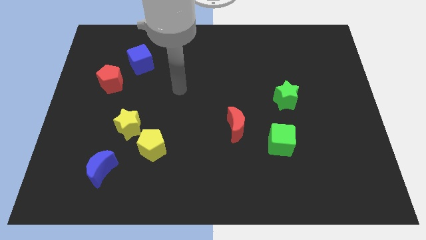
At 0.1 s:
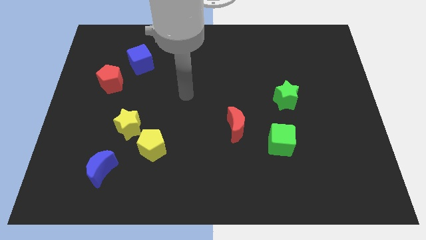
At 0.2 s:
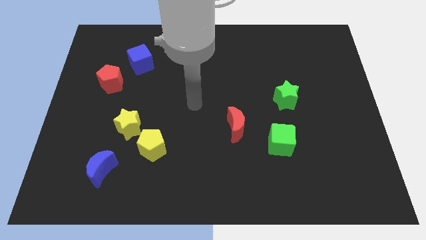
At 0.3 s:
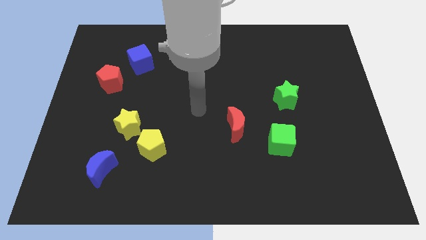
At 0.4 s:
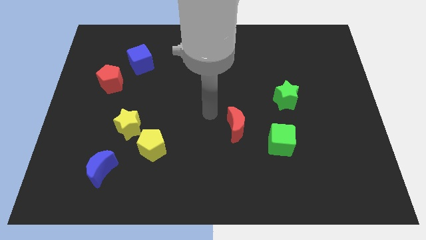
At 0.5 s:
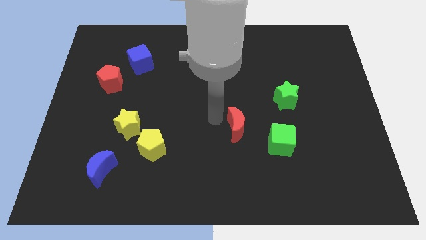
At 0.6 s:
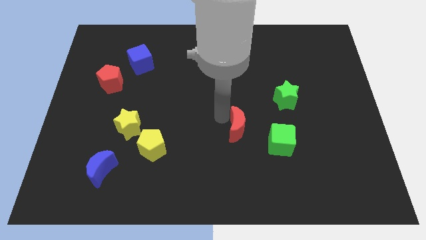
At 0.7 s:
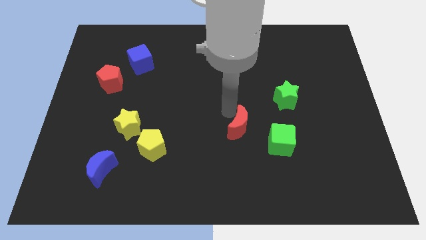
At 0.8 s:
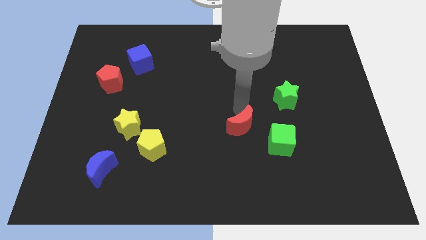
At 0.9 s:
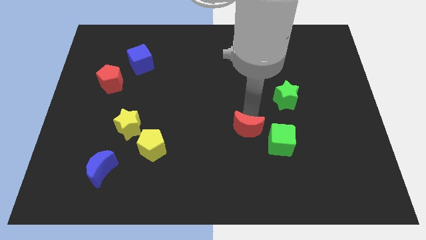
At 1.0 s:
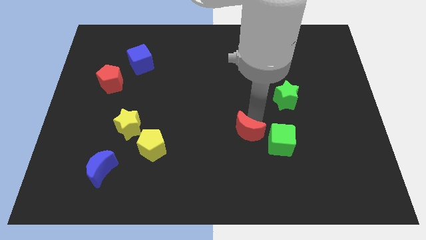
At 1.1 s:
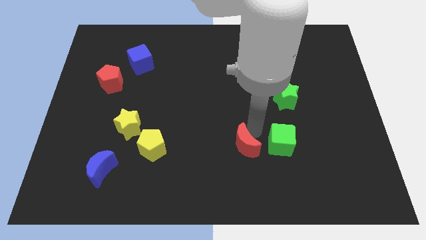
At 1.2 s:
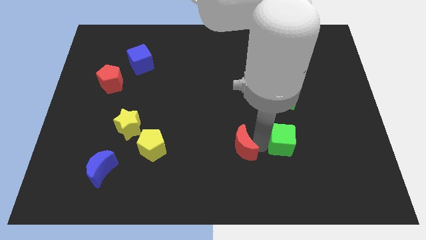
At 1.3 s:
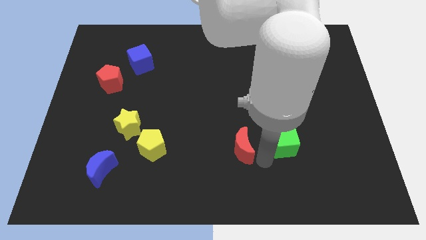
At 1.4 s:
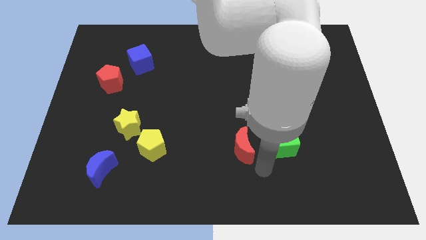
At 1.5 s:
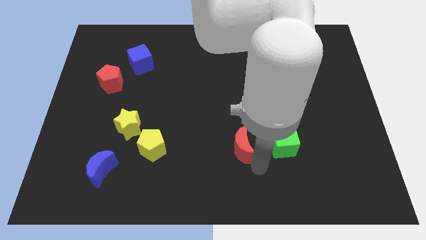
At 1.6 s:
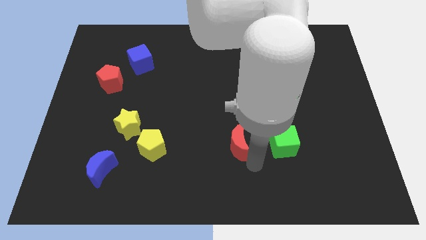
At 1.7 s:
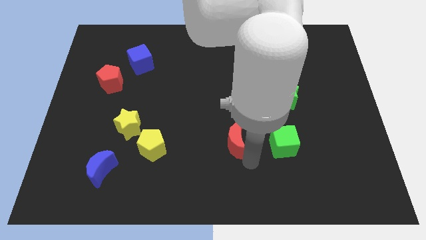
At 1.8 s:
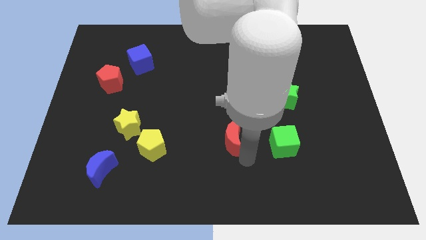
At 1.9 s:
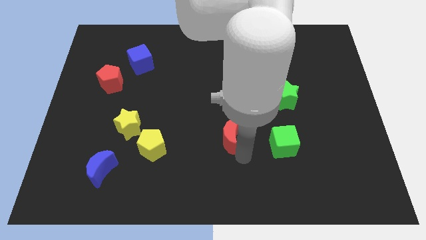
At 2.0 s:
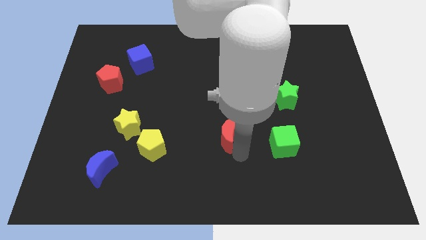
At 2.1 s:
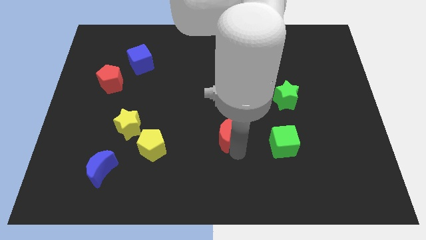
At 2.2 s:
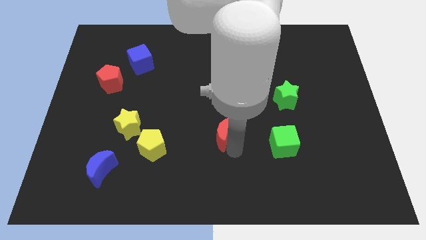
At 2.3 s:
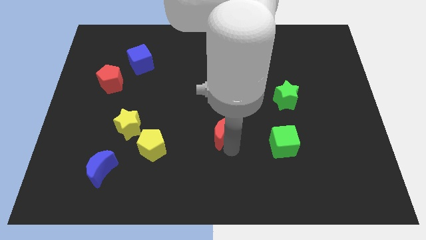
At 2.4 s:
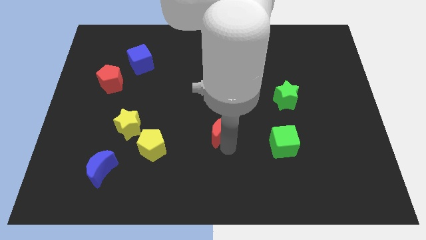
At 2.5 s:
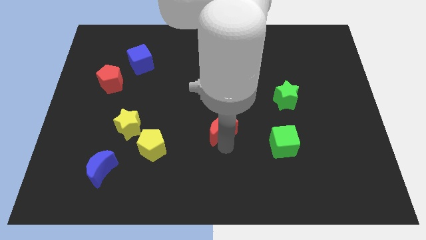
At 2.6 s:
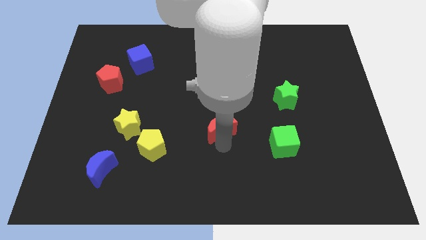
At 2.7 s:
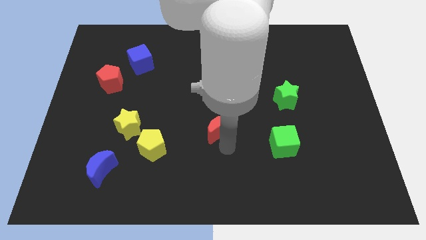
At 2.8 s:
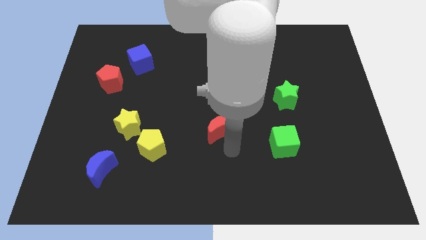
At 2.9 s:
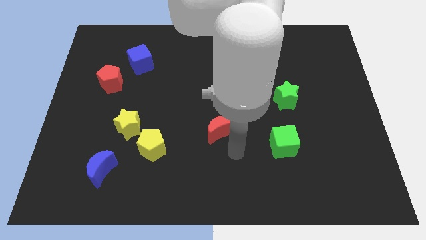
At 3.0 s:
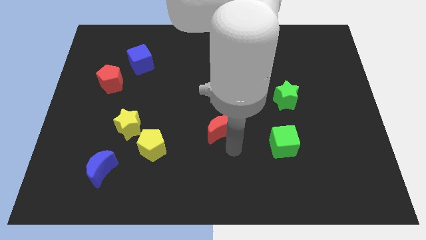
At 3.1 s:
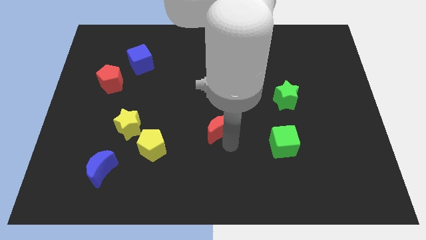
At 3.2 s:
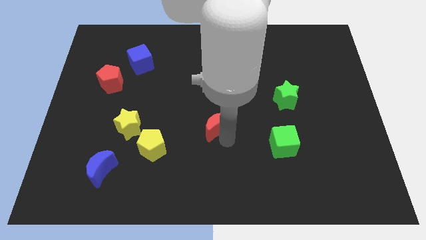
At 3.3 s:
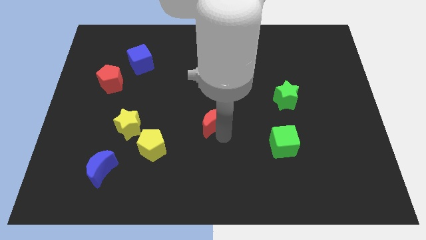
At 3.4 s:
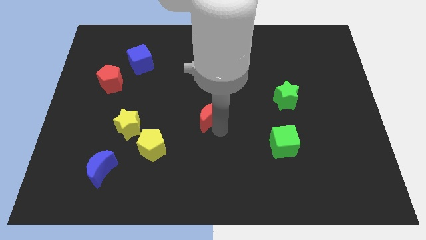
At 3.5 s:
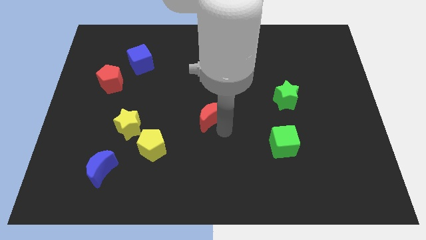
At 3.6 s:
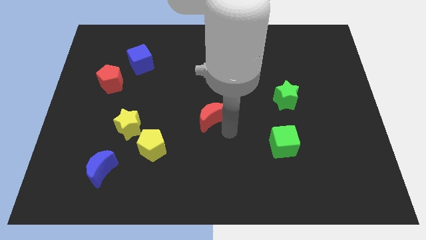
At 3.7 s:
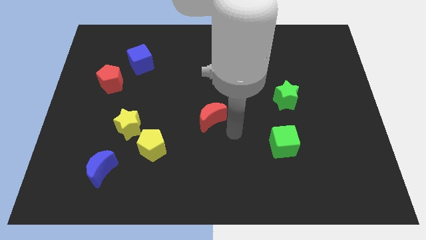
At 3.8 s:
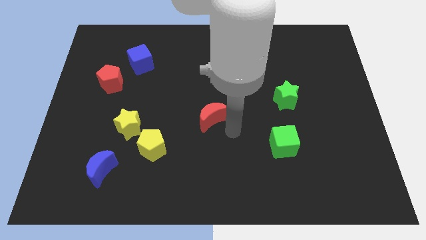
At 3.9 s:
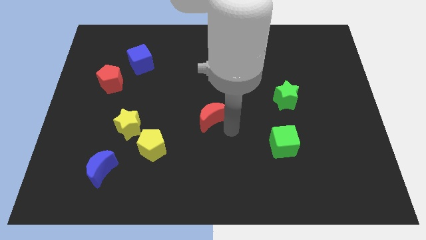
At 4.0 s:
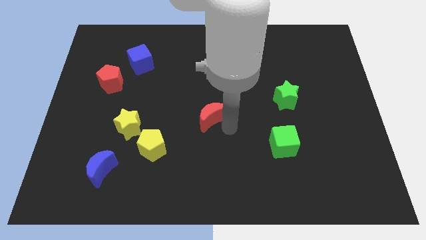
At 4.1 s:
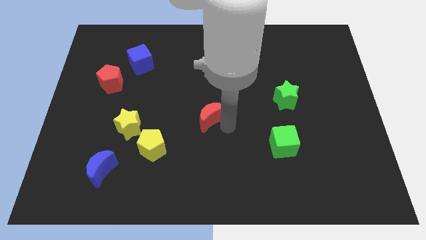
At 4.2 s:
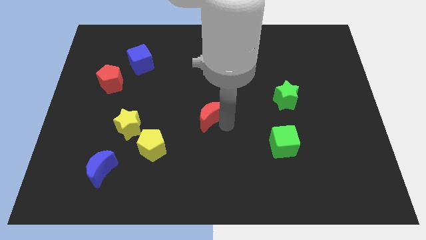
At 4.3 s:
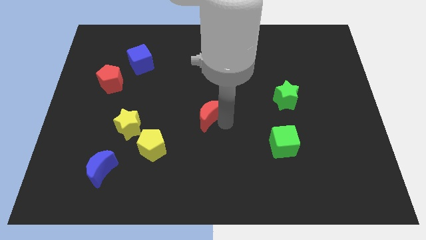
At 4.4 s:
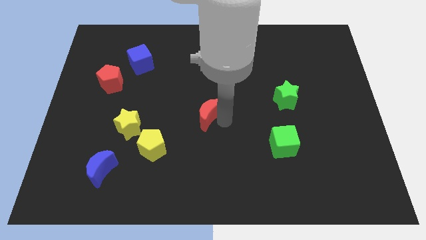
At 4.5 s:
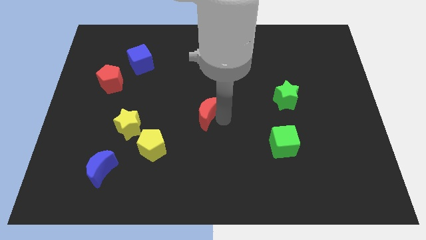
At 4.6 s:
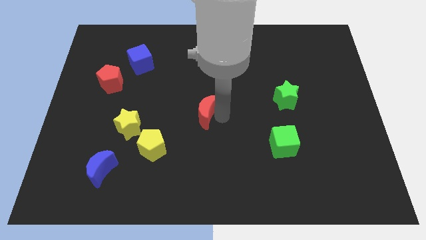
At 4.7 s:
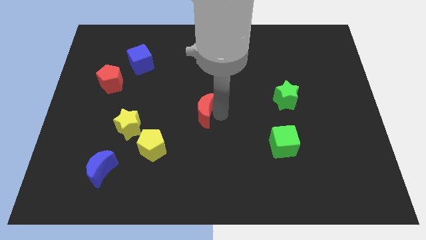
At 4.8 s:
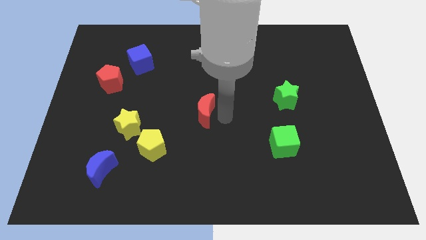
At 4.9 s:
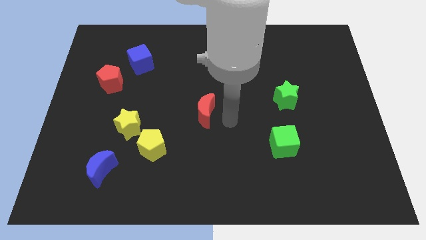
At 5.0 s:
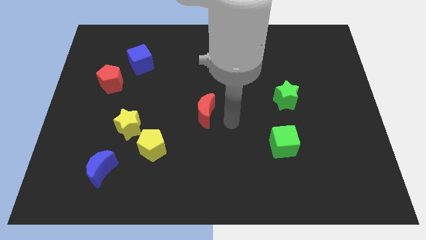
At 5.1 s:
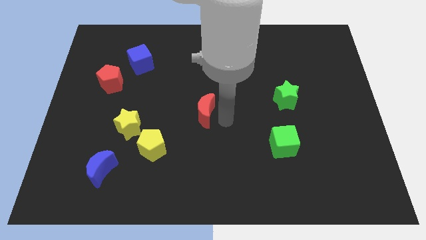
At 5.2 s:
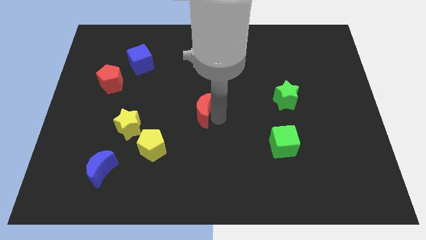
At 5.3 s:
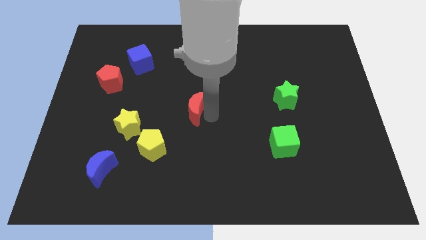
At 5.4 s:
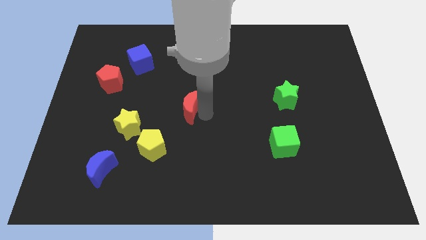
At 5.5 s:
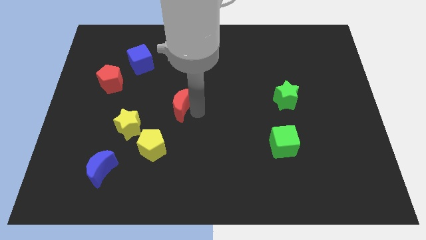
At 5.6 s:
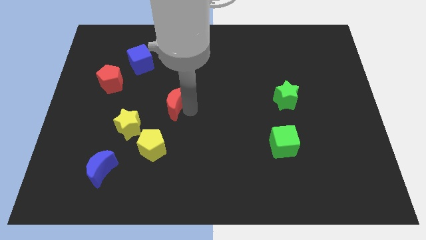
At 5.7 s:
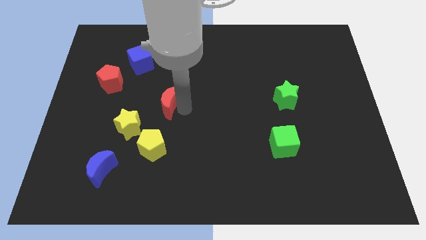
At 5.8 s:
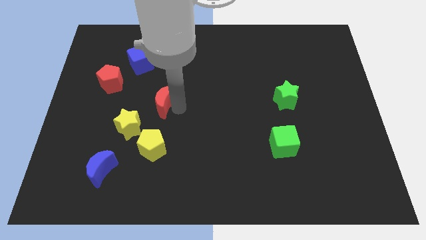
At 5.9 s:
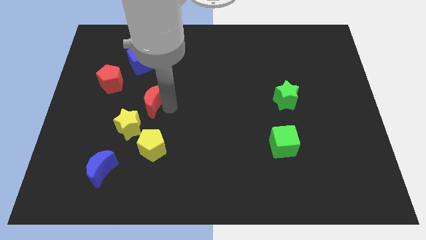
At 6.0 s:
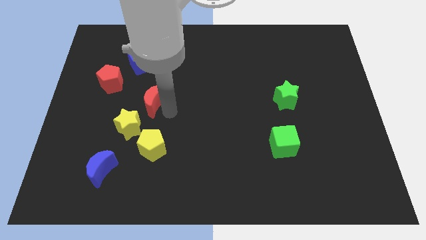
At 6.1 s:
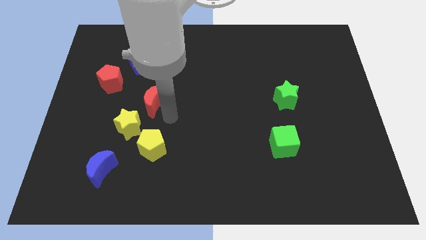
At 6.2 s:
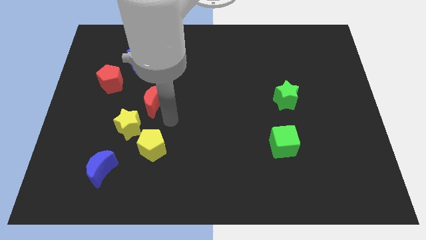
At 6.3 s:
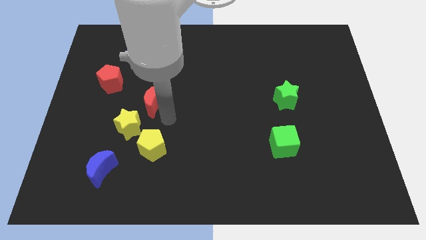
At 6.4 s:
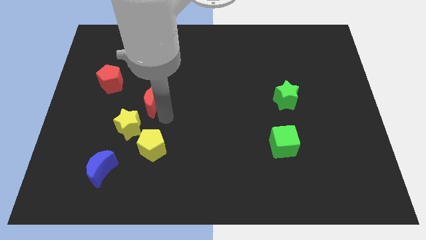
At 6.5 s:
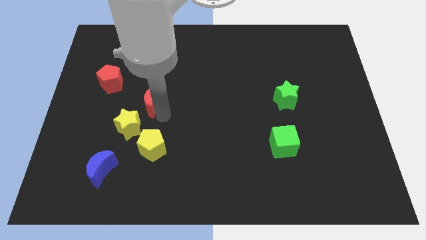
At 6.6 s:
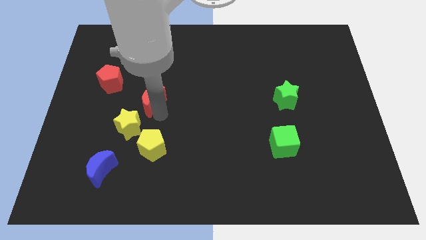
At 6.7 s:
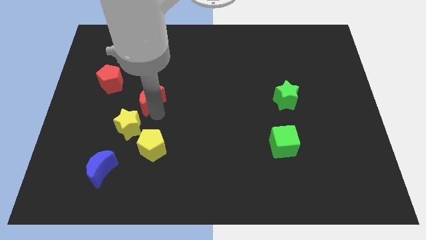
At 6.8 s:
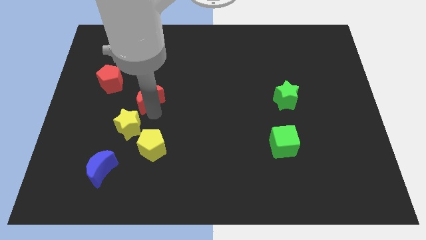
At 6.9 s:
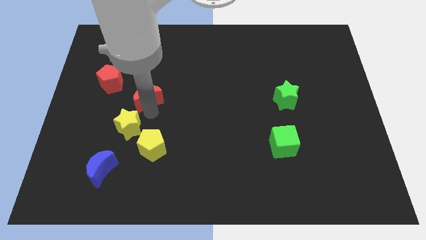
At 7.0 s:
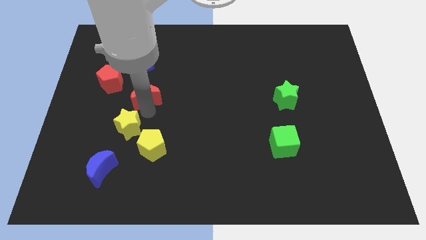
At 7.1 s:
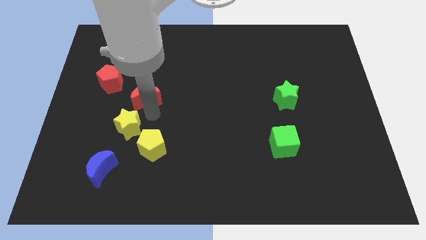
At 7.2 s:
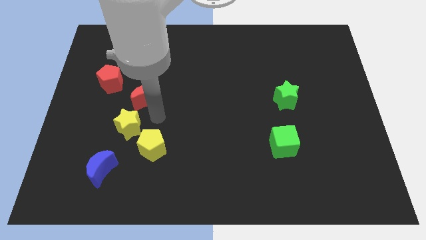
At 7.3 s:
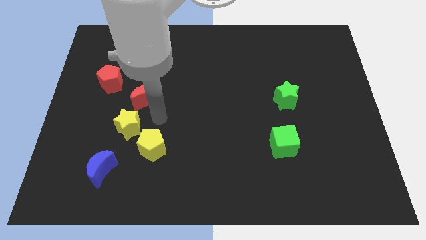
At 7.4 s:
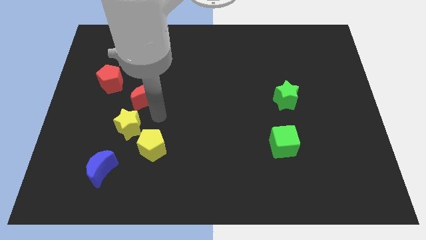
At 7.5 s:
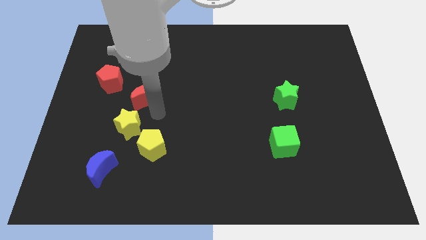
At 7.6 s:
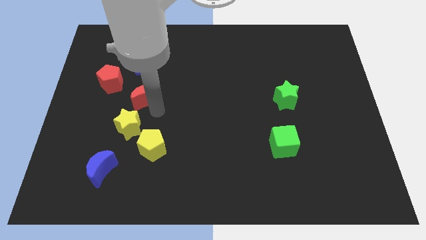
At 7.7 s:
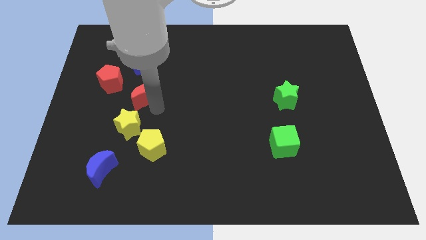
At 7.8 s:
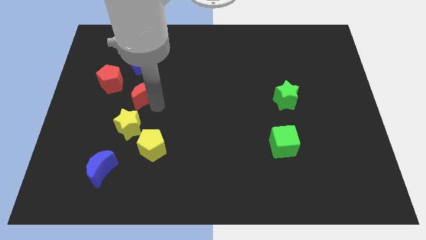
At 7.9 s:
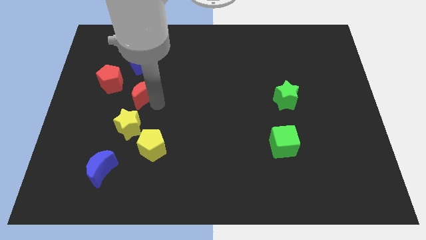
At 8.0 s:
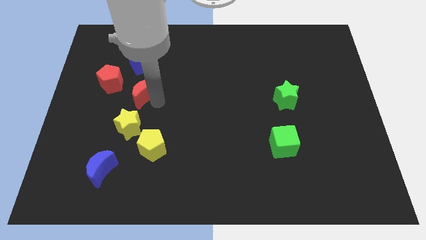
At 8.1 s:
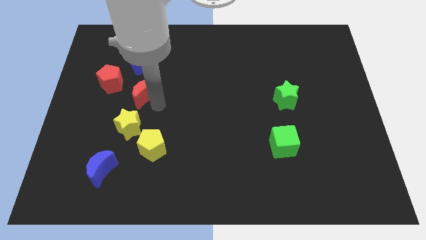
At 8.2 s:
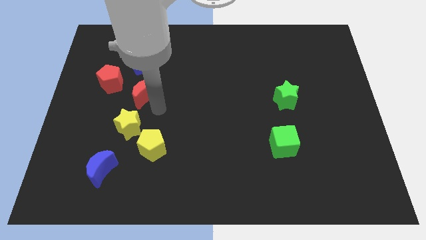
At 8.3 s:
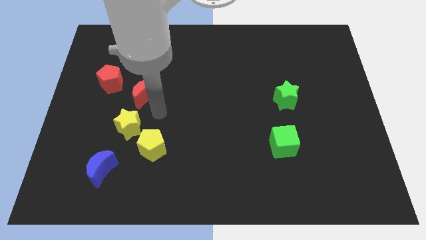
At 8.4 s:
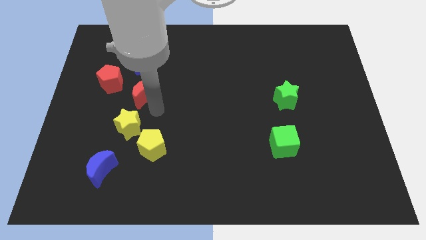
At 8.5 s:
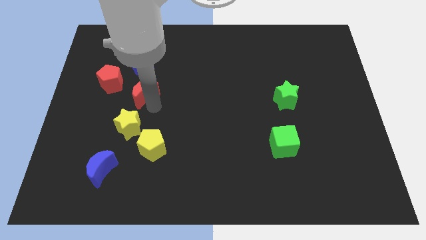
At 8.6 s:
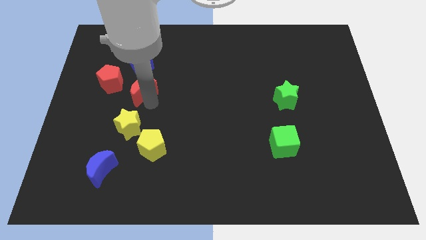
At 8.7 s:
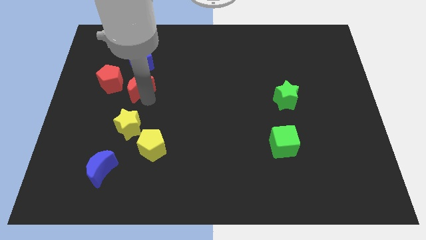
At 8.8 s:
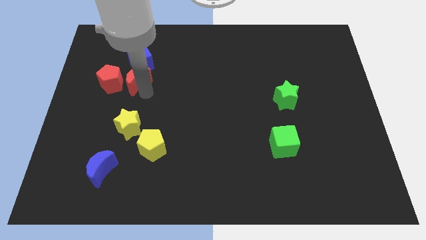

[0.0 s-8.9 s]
push the red moon towards the red pentagon
